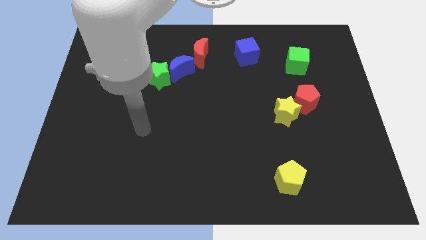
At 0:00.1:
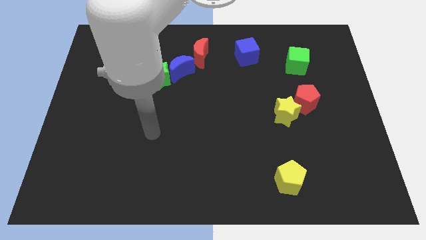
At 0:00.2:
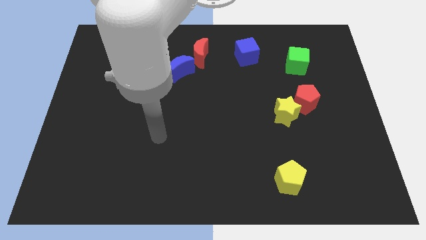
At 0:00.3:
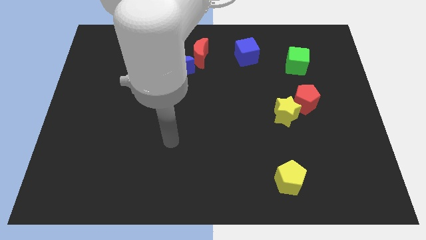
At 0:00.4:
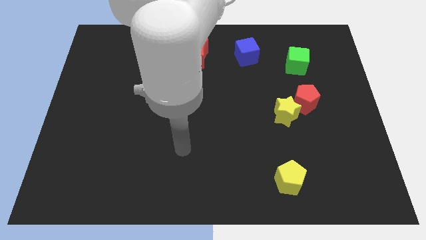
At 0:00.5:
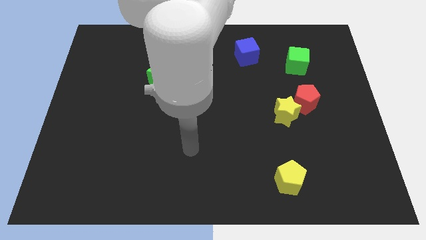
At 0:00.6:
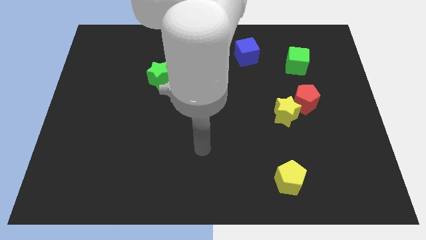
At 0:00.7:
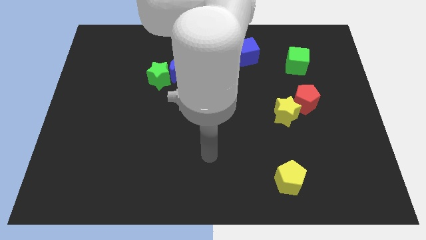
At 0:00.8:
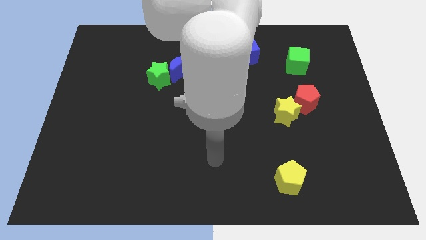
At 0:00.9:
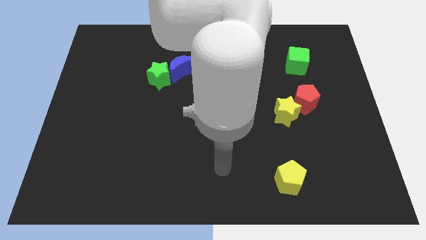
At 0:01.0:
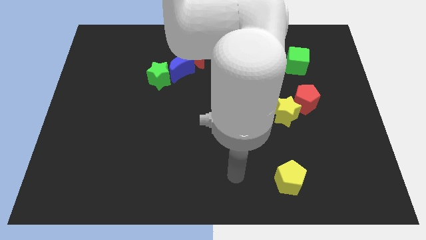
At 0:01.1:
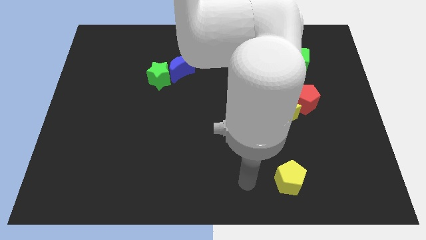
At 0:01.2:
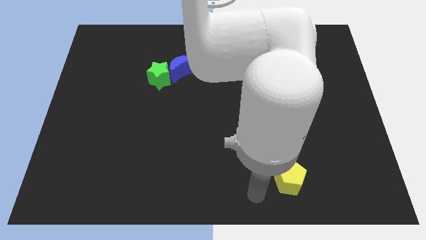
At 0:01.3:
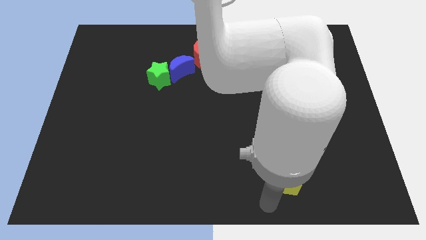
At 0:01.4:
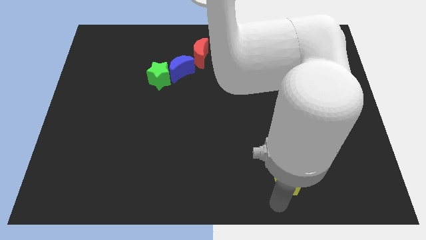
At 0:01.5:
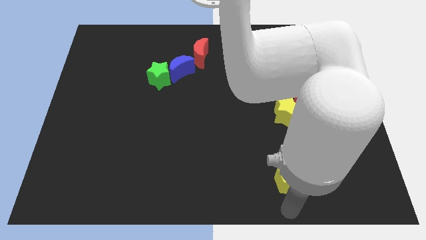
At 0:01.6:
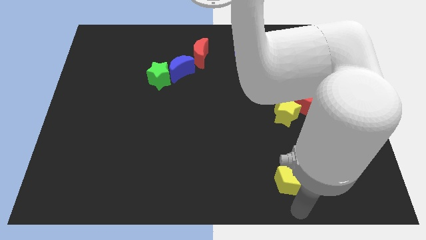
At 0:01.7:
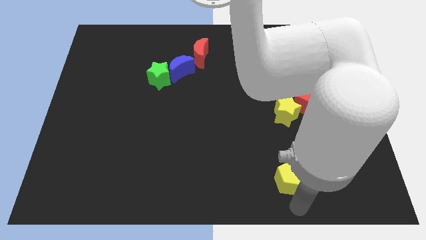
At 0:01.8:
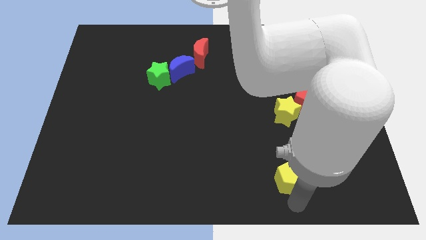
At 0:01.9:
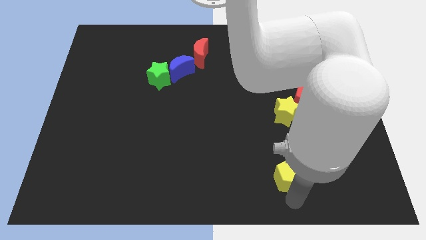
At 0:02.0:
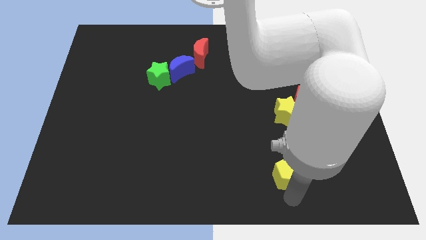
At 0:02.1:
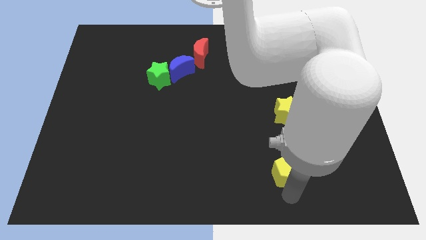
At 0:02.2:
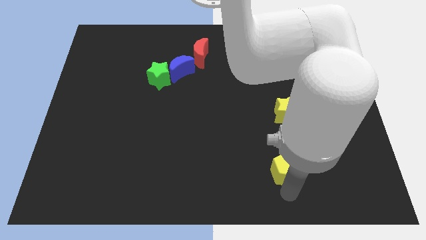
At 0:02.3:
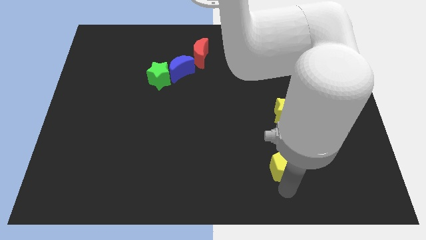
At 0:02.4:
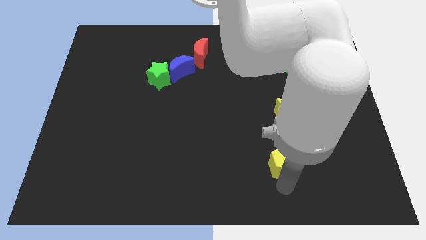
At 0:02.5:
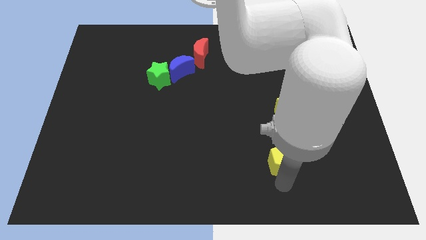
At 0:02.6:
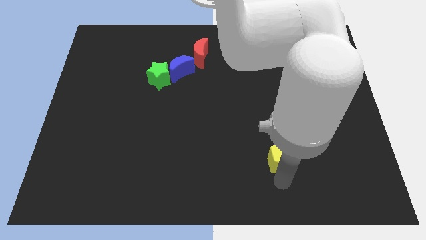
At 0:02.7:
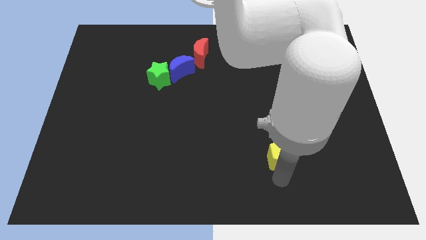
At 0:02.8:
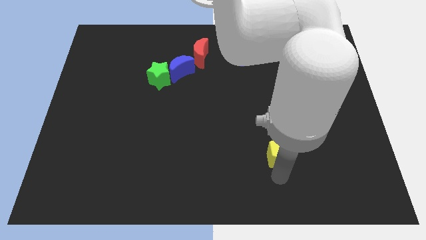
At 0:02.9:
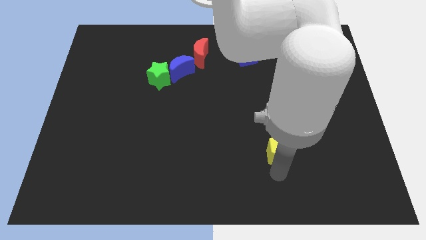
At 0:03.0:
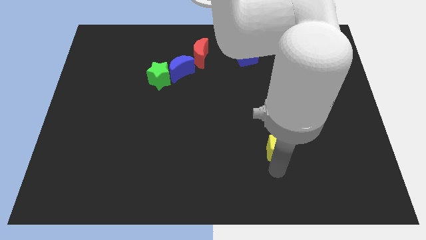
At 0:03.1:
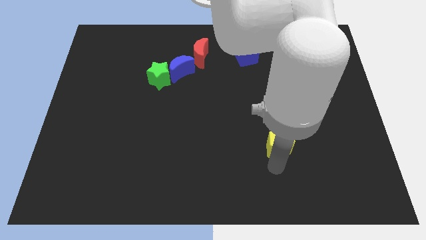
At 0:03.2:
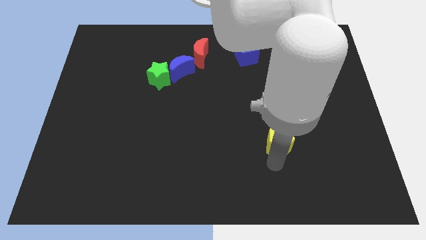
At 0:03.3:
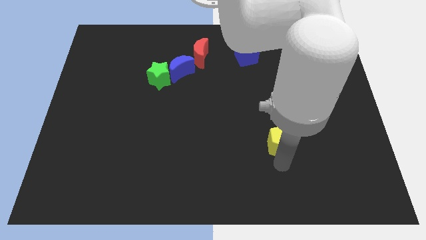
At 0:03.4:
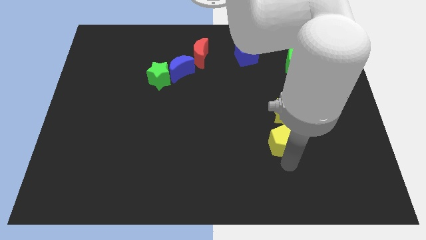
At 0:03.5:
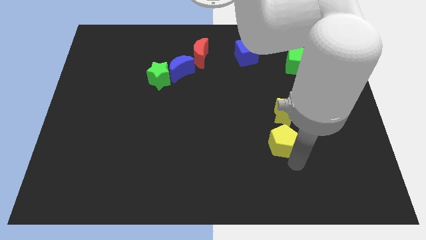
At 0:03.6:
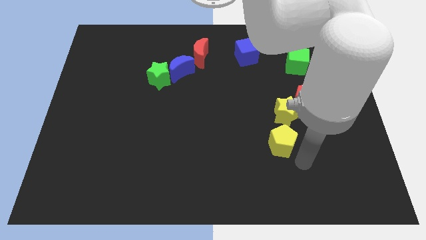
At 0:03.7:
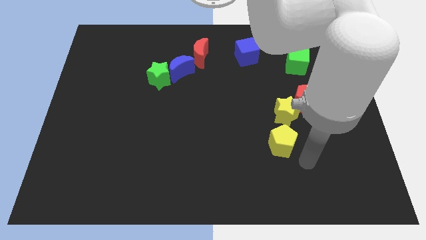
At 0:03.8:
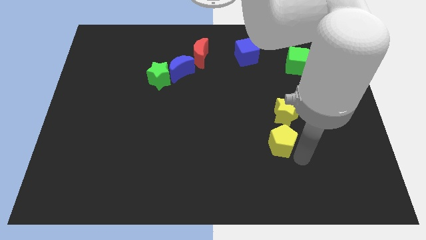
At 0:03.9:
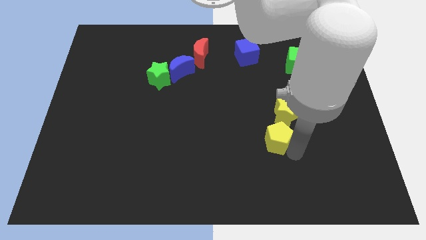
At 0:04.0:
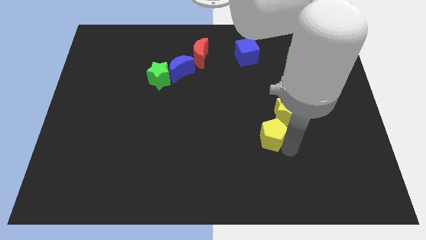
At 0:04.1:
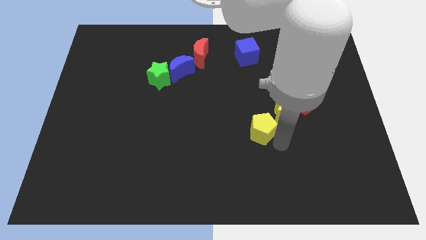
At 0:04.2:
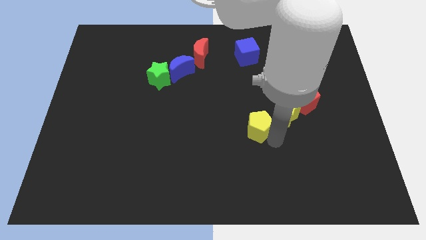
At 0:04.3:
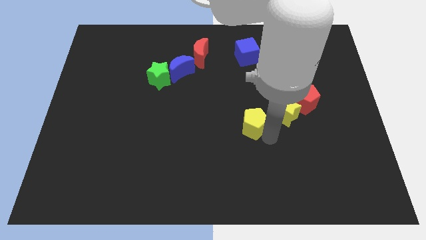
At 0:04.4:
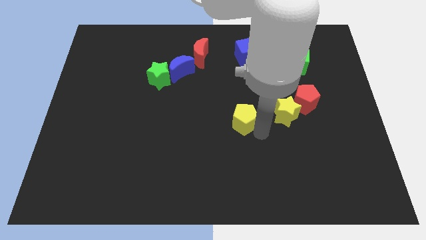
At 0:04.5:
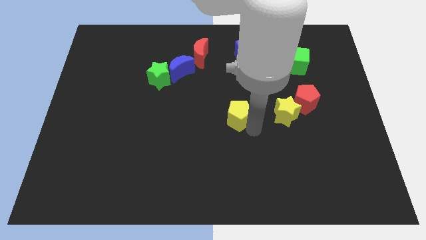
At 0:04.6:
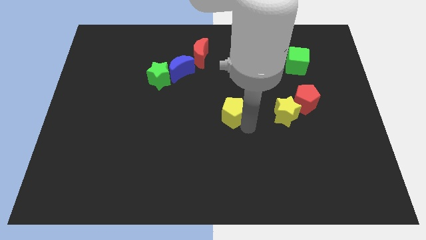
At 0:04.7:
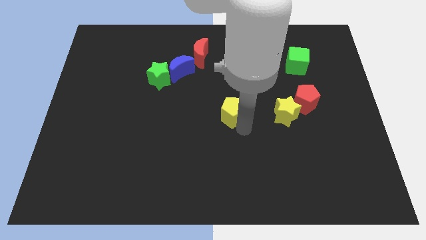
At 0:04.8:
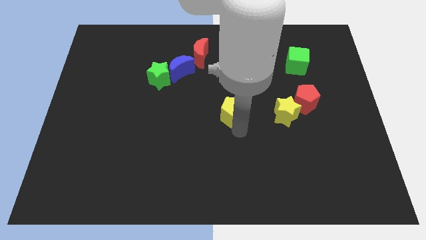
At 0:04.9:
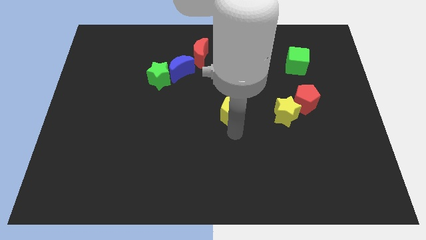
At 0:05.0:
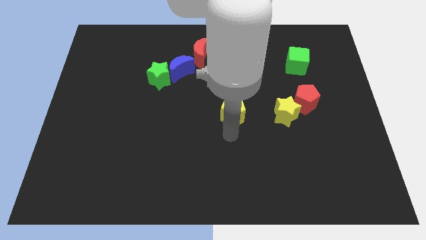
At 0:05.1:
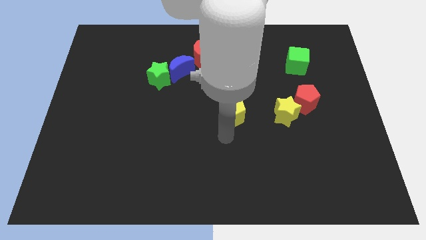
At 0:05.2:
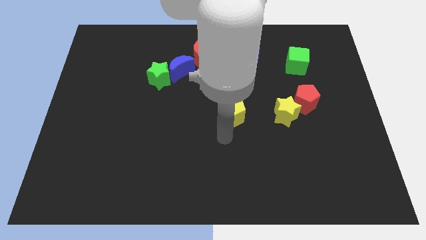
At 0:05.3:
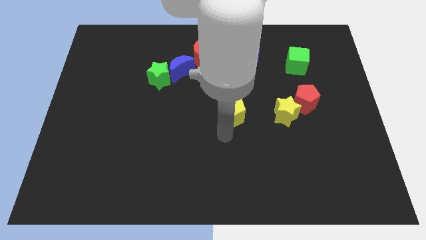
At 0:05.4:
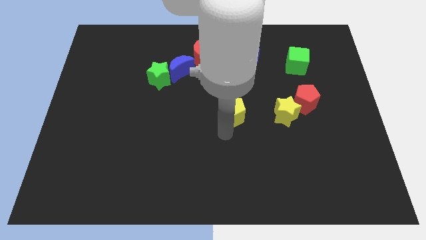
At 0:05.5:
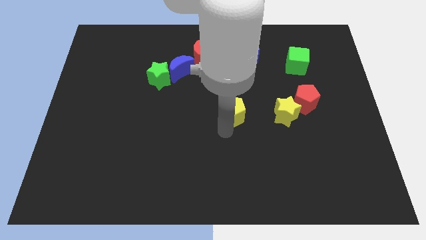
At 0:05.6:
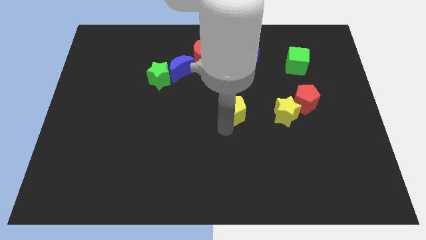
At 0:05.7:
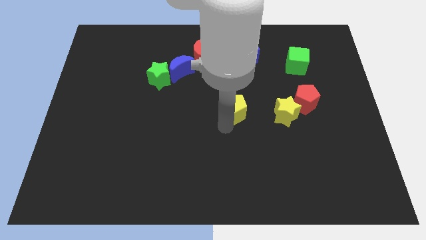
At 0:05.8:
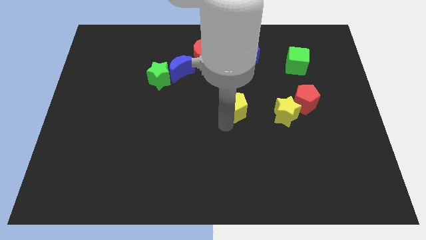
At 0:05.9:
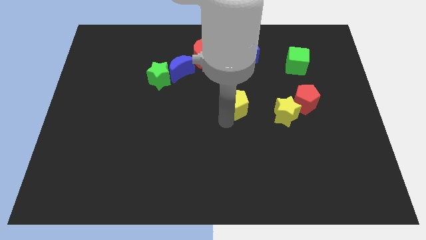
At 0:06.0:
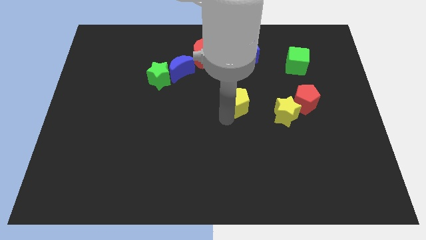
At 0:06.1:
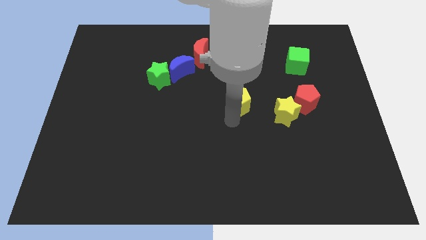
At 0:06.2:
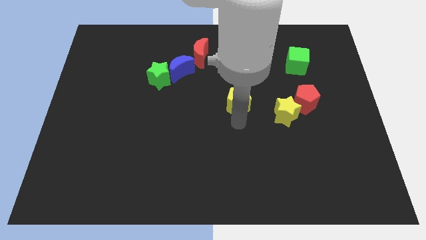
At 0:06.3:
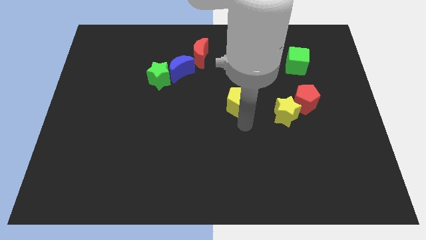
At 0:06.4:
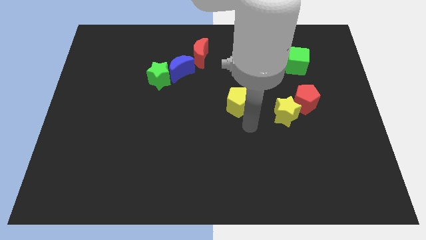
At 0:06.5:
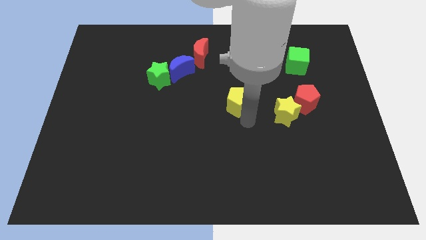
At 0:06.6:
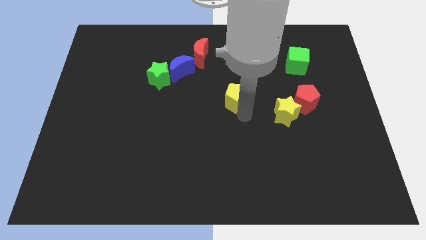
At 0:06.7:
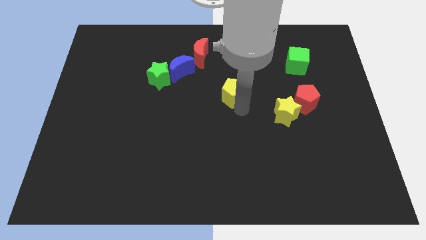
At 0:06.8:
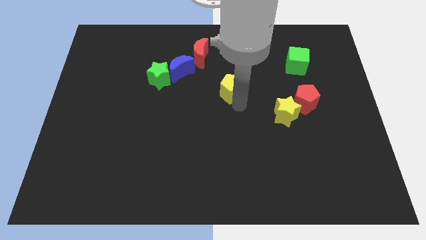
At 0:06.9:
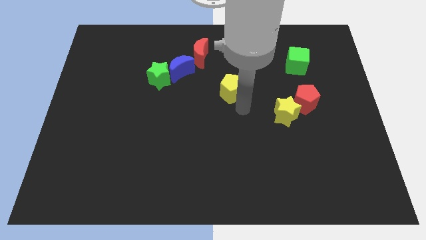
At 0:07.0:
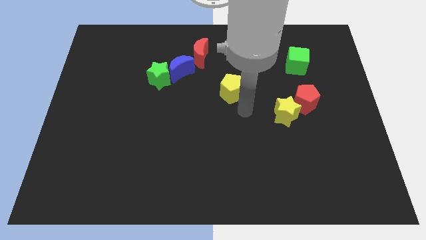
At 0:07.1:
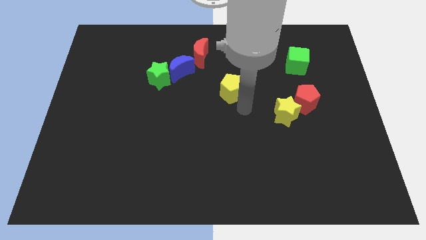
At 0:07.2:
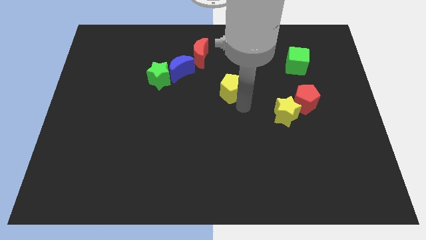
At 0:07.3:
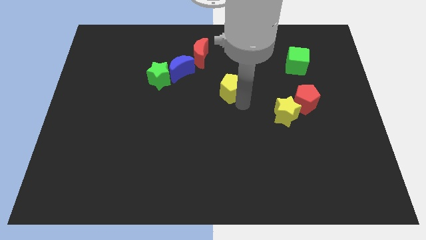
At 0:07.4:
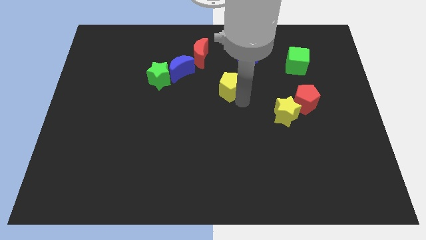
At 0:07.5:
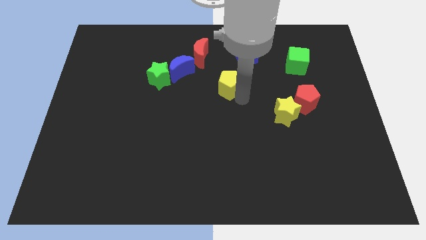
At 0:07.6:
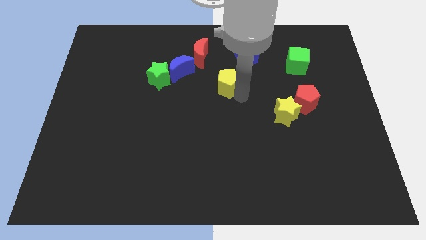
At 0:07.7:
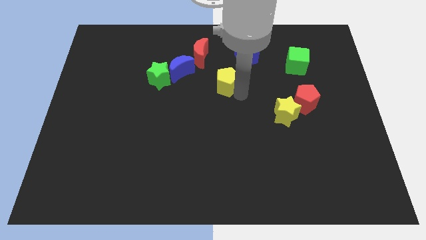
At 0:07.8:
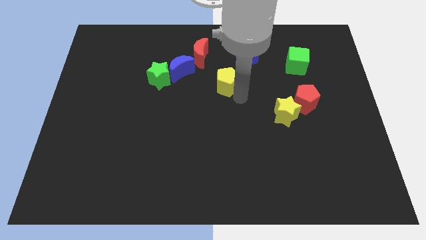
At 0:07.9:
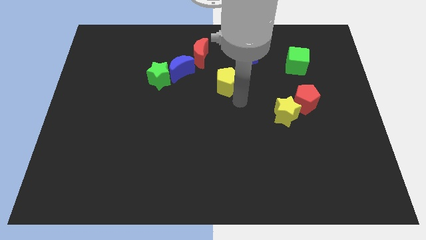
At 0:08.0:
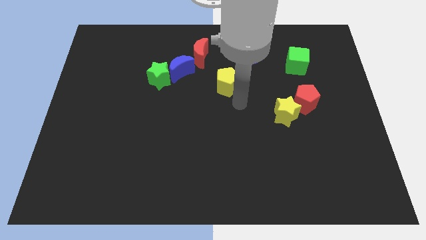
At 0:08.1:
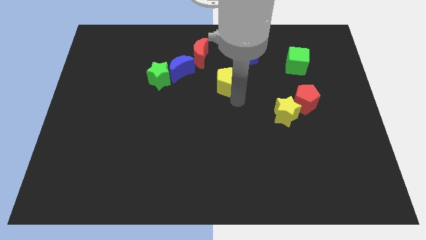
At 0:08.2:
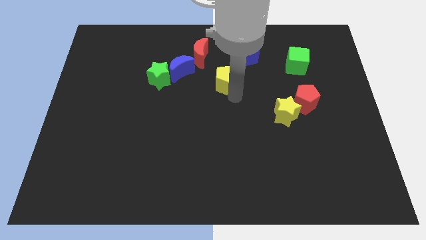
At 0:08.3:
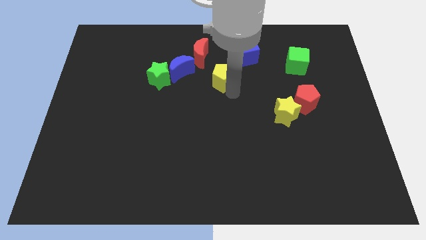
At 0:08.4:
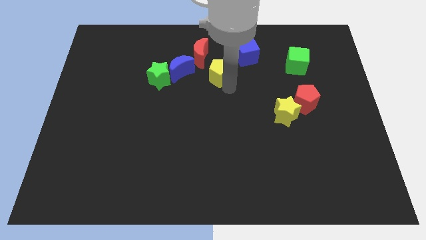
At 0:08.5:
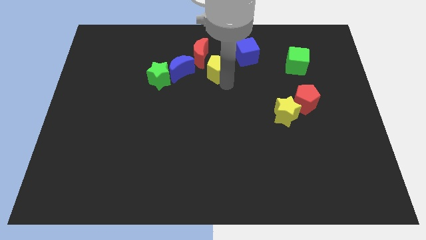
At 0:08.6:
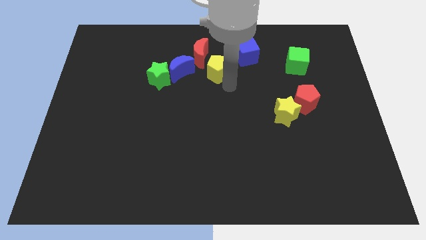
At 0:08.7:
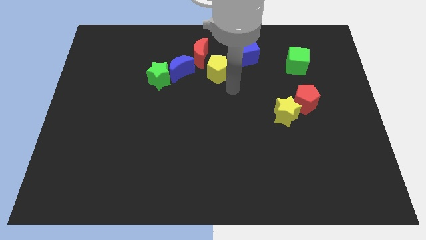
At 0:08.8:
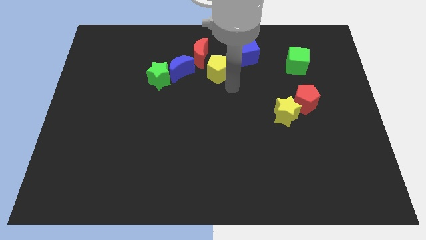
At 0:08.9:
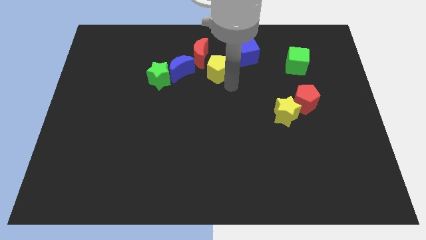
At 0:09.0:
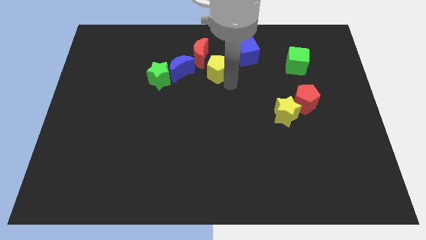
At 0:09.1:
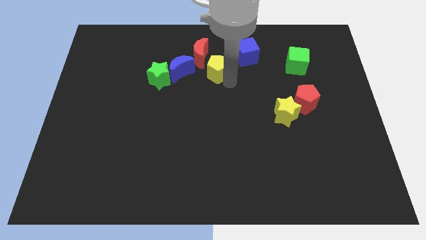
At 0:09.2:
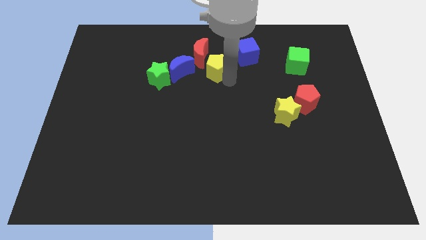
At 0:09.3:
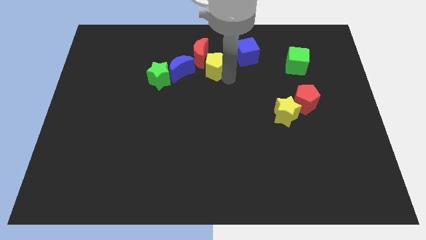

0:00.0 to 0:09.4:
slide the yellow pentagon close to the red moon
